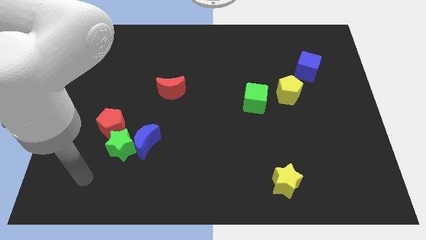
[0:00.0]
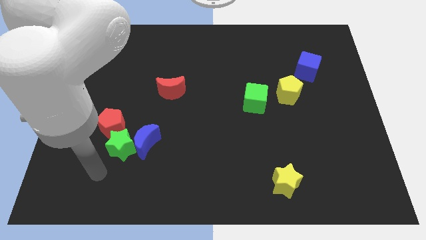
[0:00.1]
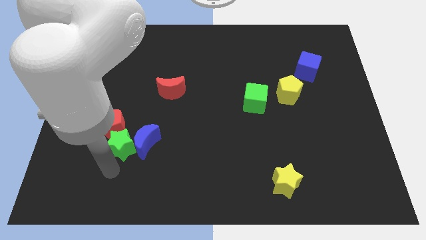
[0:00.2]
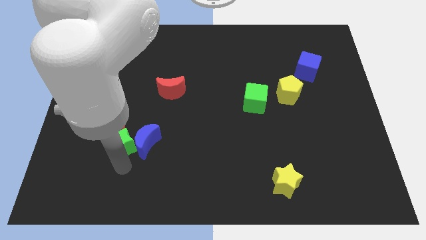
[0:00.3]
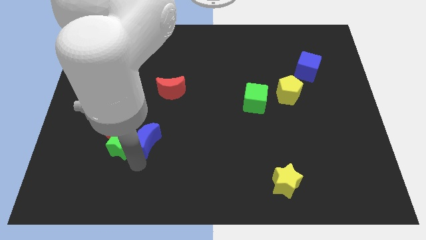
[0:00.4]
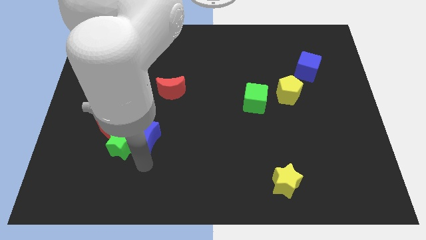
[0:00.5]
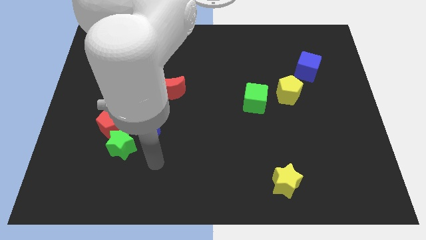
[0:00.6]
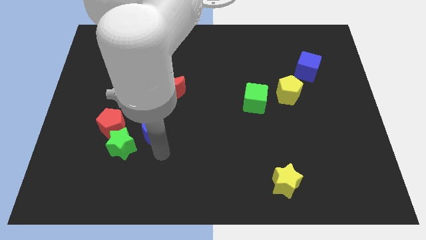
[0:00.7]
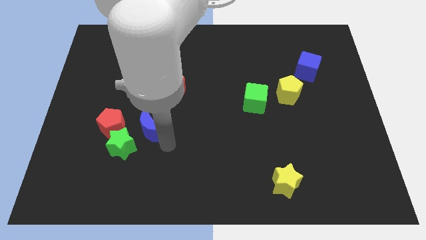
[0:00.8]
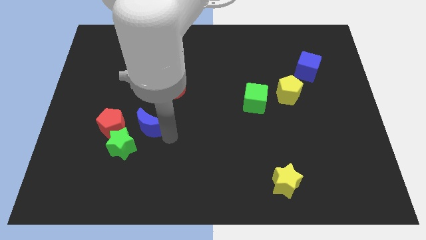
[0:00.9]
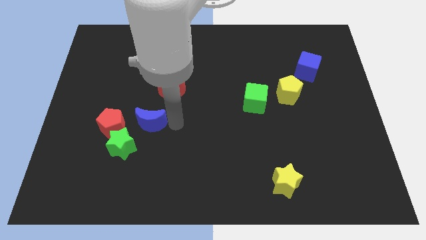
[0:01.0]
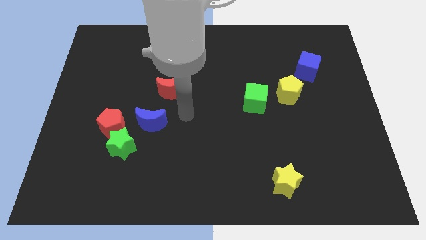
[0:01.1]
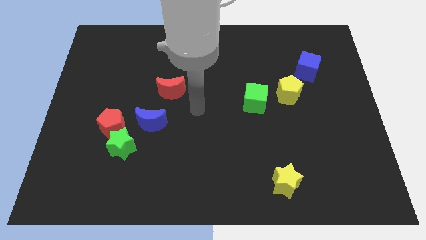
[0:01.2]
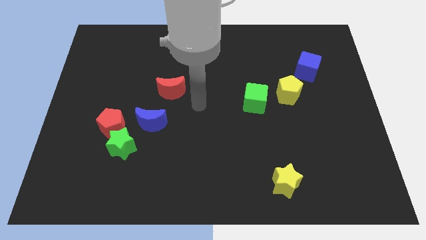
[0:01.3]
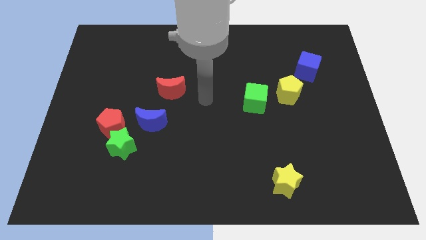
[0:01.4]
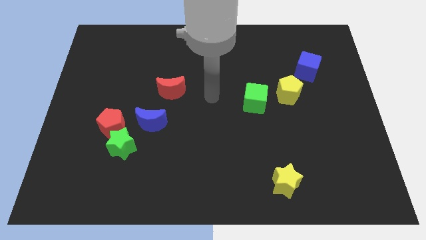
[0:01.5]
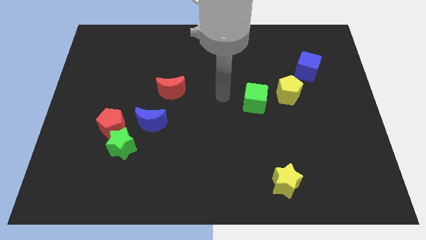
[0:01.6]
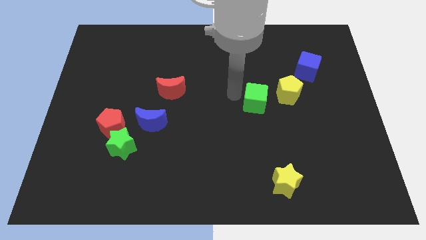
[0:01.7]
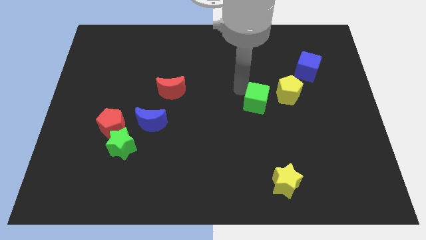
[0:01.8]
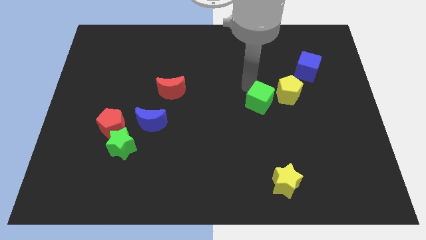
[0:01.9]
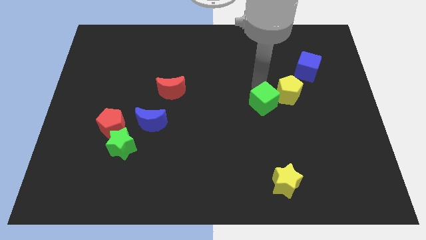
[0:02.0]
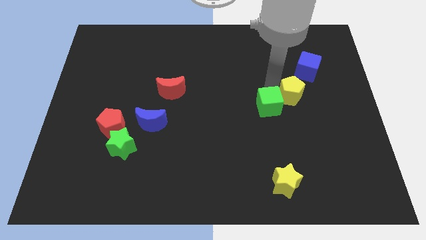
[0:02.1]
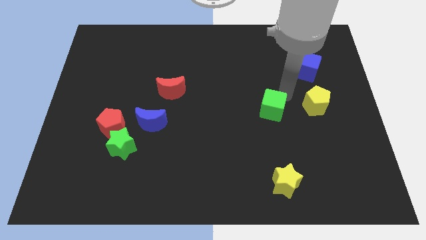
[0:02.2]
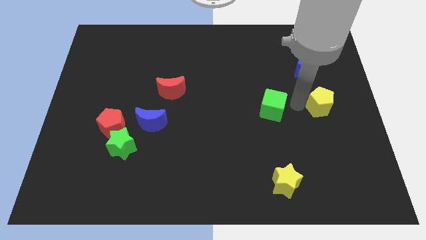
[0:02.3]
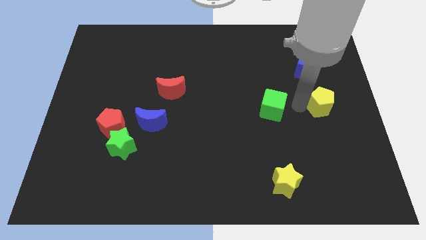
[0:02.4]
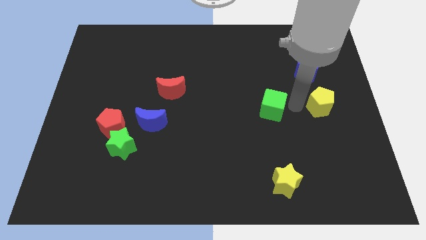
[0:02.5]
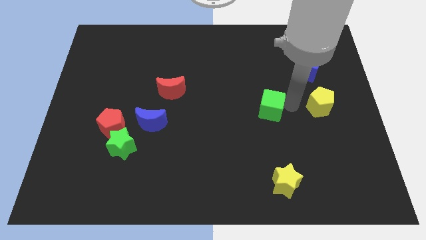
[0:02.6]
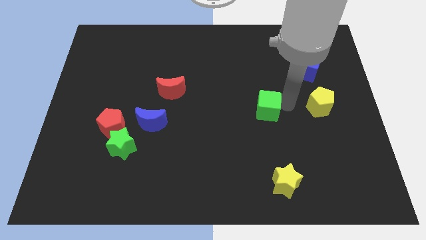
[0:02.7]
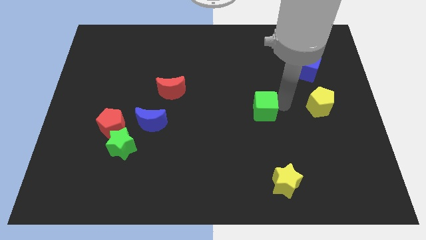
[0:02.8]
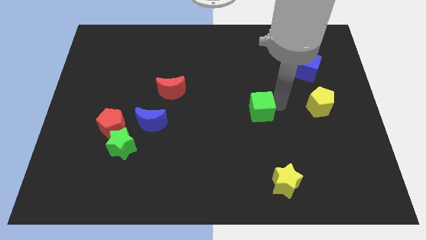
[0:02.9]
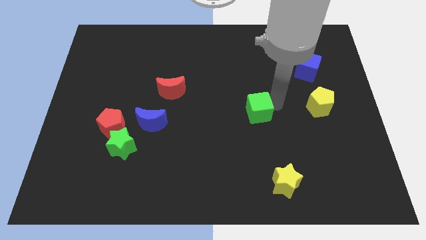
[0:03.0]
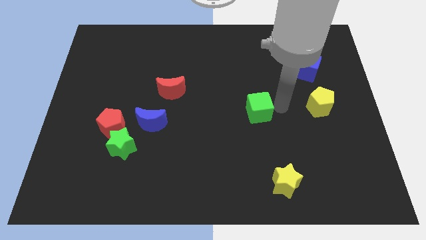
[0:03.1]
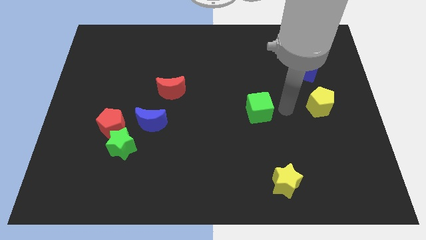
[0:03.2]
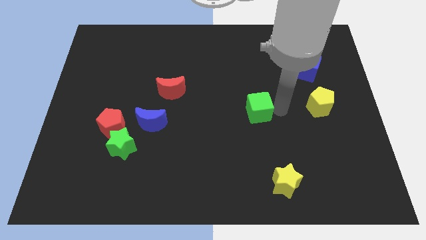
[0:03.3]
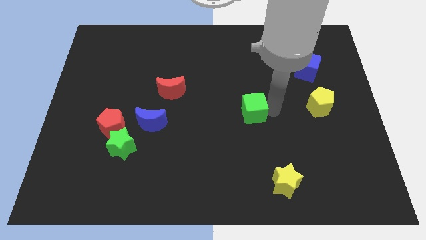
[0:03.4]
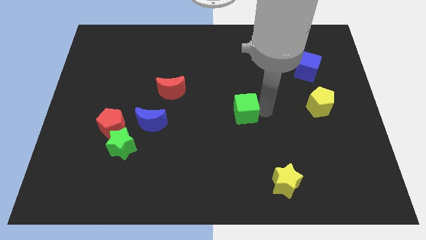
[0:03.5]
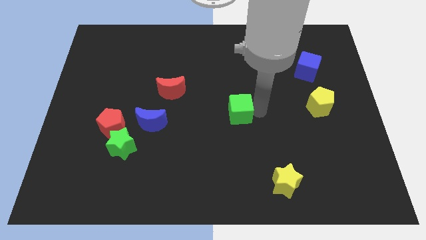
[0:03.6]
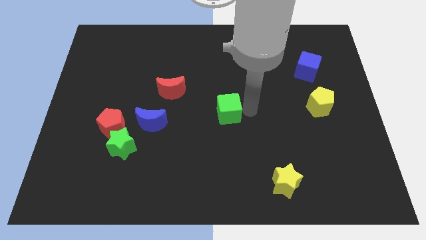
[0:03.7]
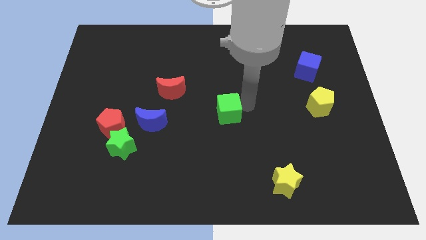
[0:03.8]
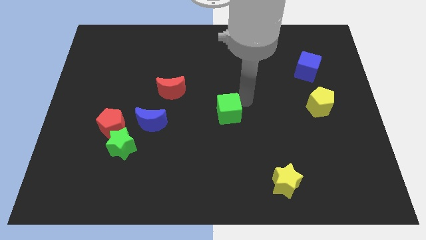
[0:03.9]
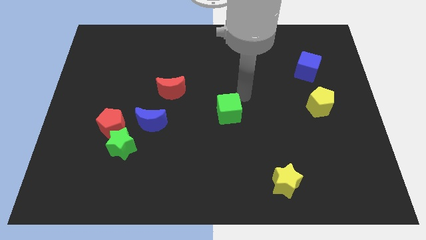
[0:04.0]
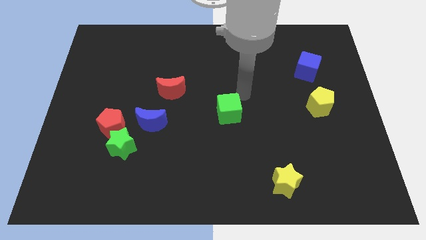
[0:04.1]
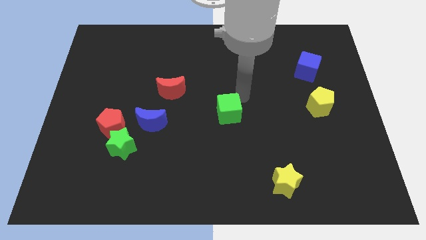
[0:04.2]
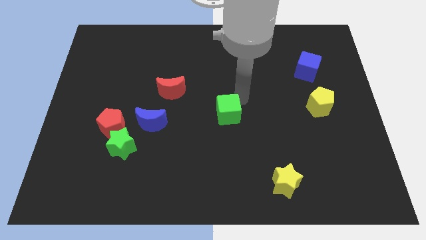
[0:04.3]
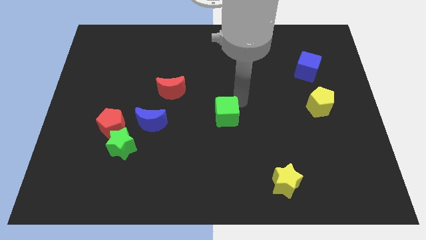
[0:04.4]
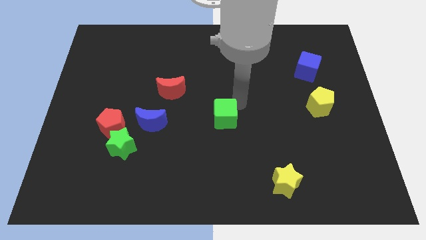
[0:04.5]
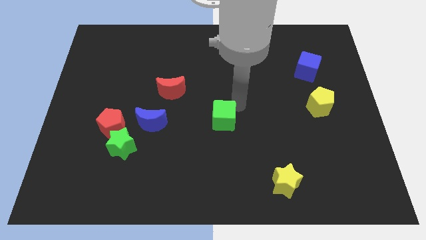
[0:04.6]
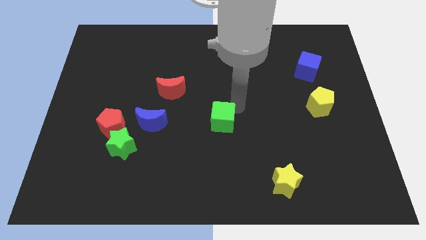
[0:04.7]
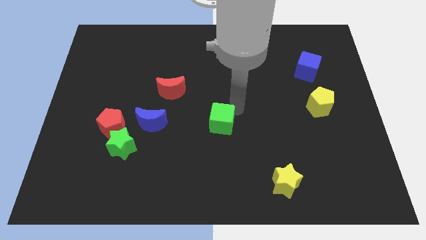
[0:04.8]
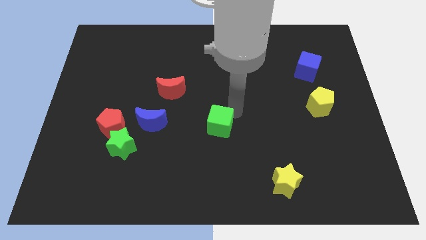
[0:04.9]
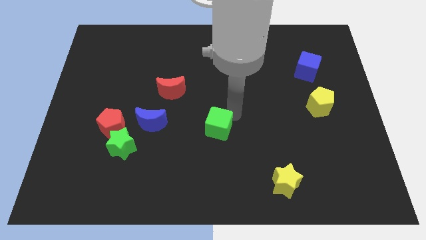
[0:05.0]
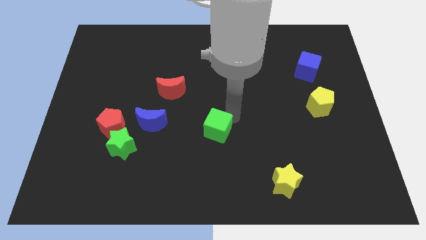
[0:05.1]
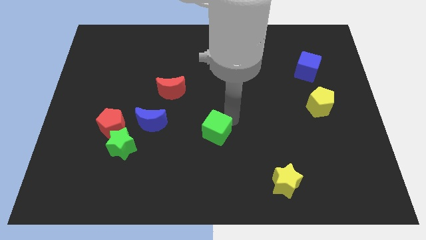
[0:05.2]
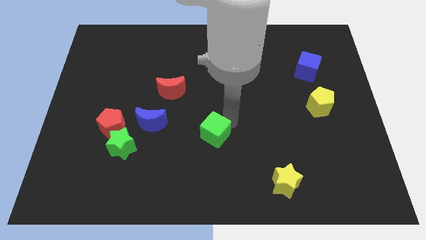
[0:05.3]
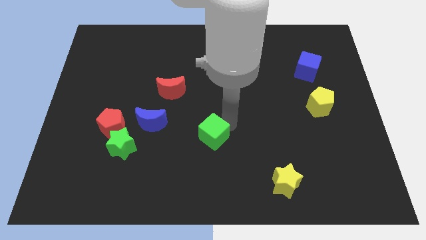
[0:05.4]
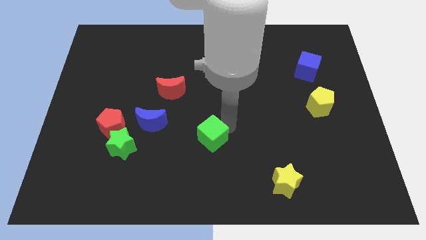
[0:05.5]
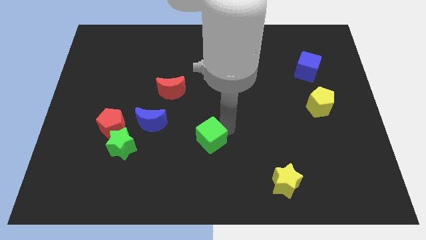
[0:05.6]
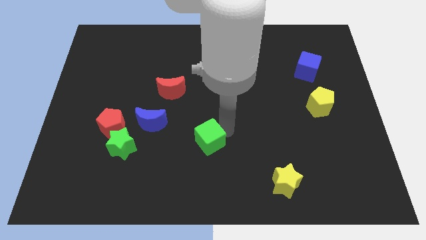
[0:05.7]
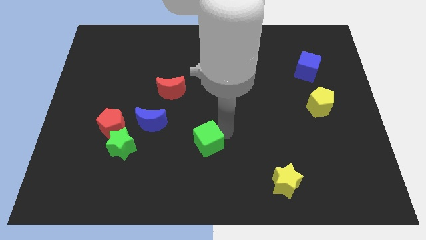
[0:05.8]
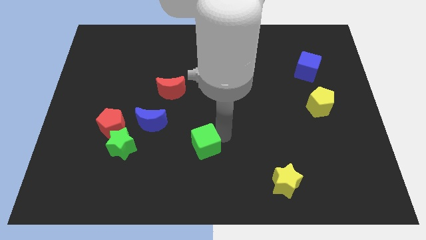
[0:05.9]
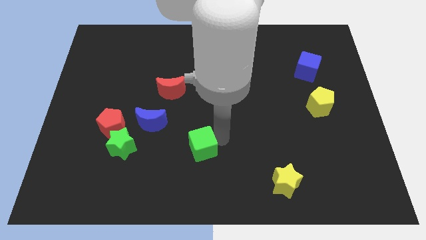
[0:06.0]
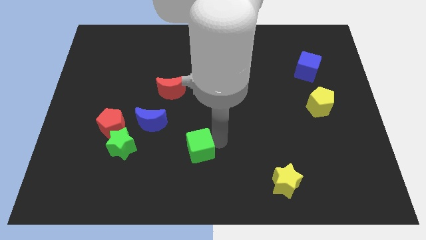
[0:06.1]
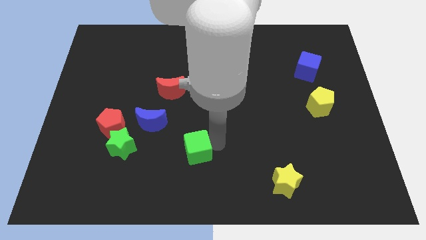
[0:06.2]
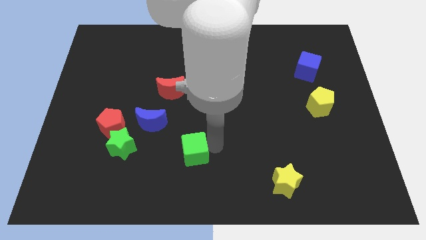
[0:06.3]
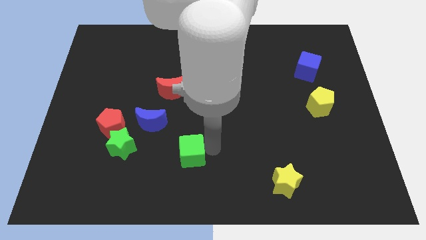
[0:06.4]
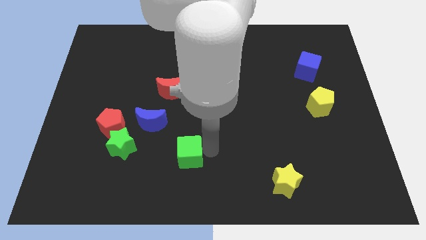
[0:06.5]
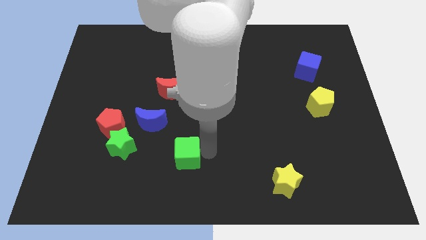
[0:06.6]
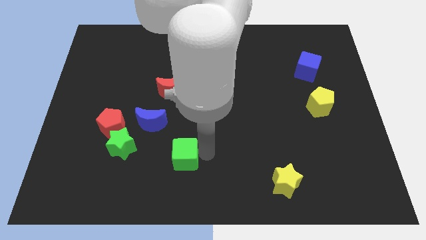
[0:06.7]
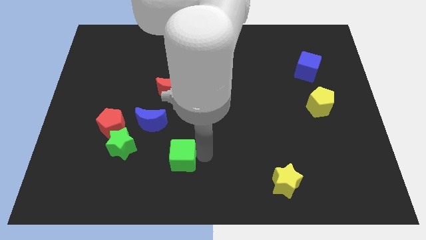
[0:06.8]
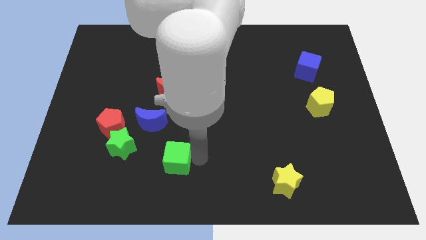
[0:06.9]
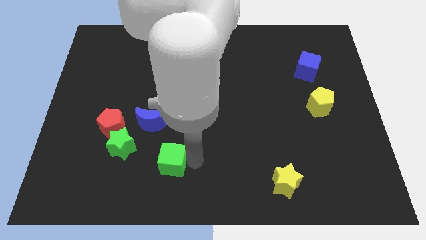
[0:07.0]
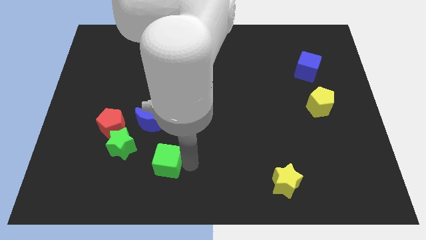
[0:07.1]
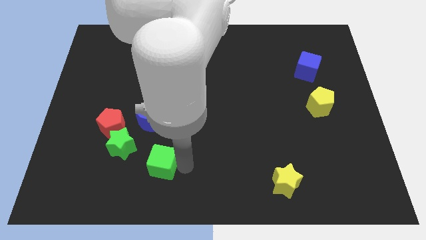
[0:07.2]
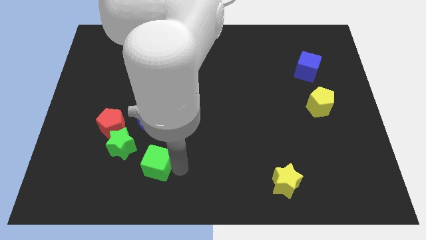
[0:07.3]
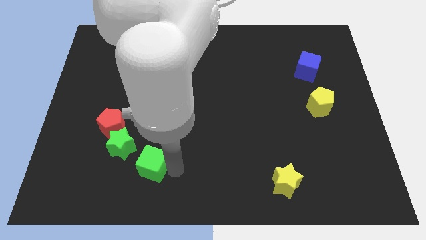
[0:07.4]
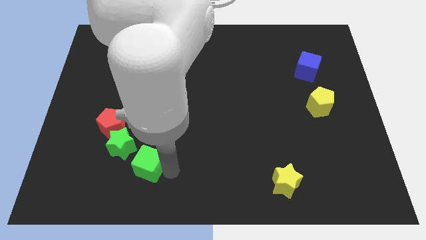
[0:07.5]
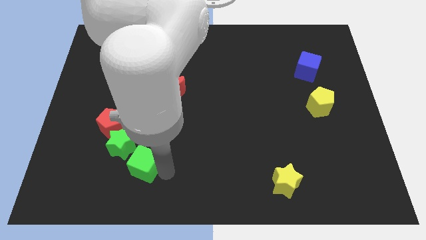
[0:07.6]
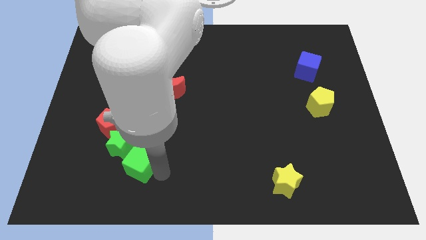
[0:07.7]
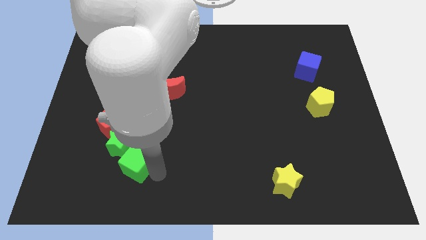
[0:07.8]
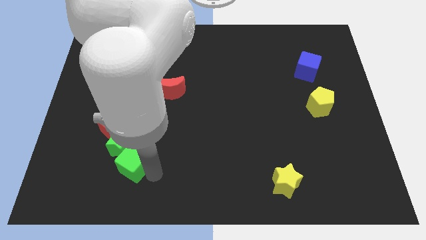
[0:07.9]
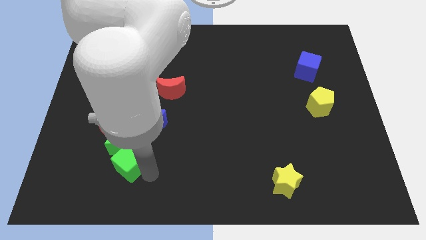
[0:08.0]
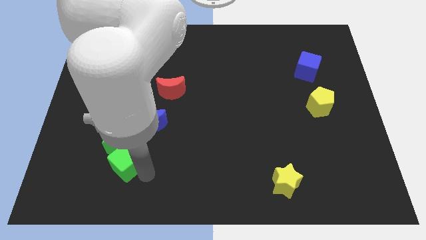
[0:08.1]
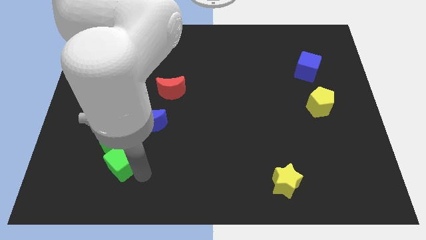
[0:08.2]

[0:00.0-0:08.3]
slide the green cube to the bottom left of the blue moon
